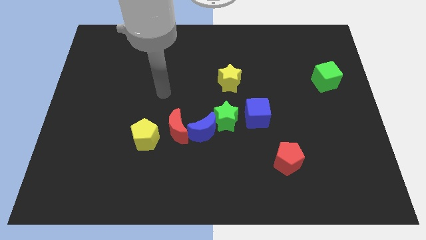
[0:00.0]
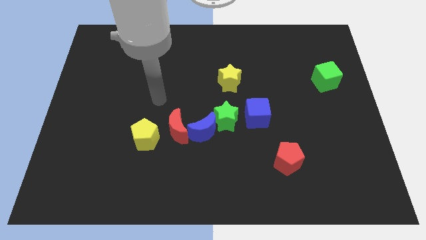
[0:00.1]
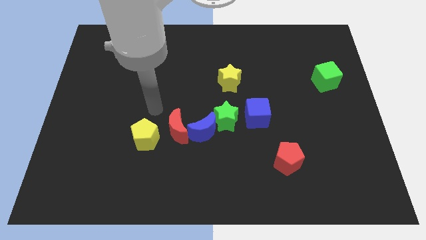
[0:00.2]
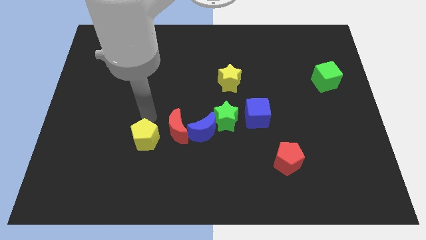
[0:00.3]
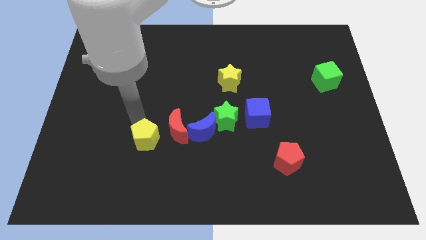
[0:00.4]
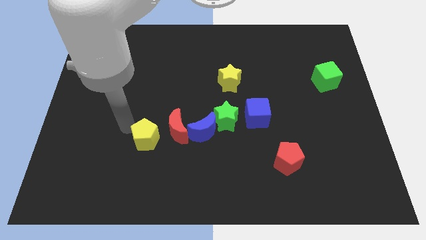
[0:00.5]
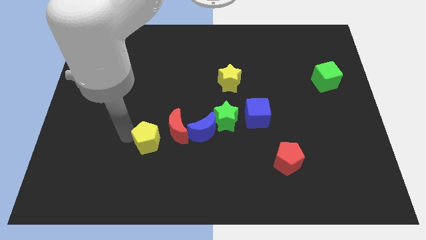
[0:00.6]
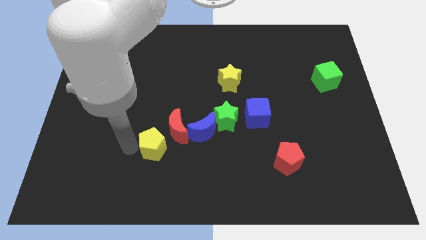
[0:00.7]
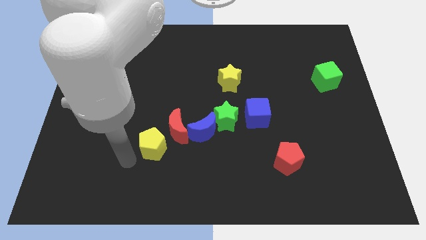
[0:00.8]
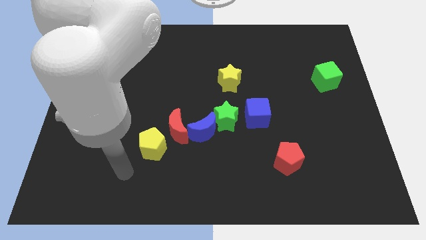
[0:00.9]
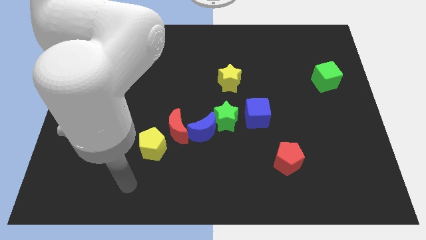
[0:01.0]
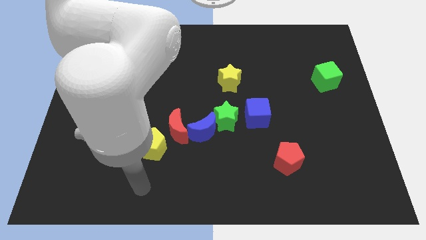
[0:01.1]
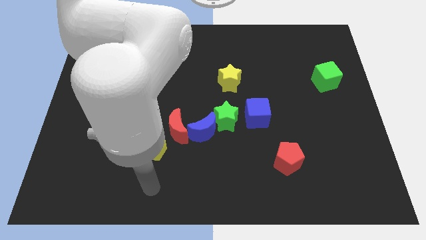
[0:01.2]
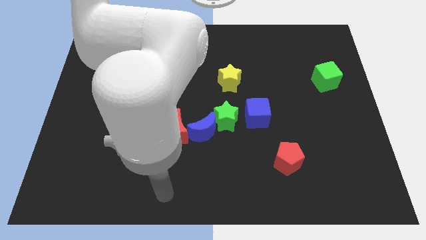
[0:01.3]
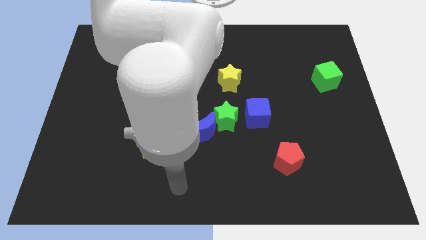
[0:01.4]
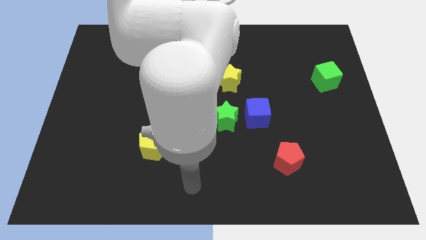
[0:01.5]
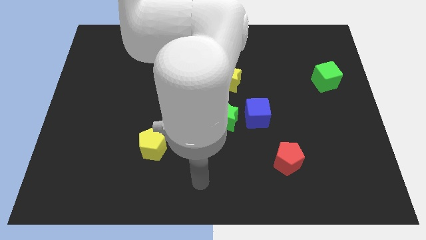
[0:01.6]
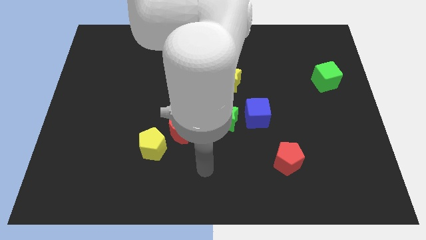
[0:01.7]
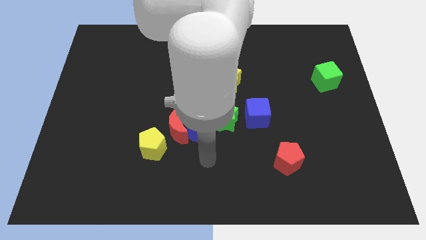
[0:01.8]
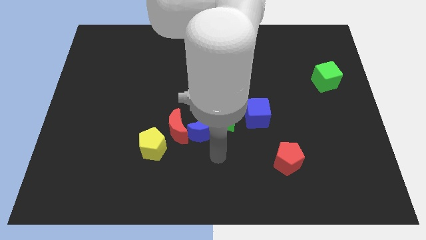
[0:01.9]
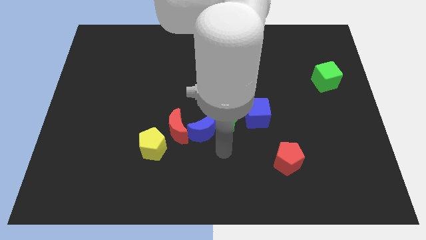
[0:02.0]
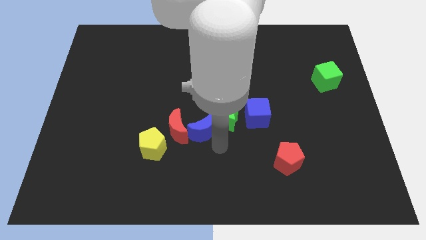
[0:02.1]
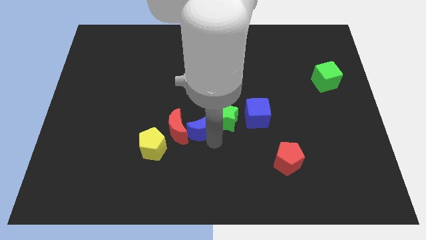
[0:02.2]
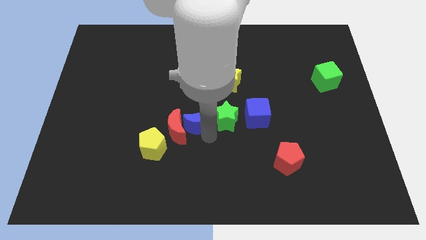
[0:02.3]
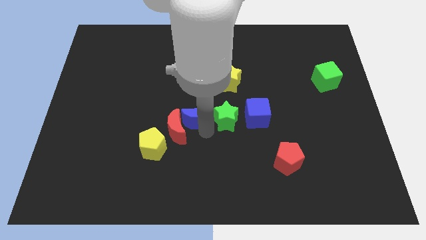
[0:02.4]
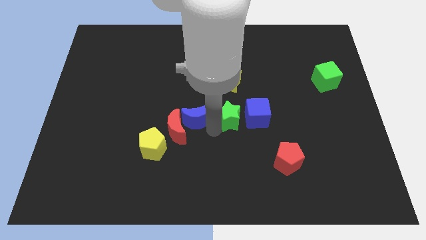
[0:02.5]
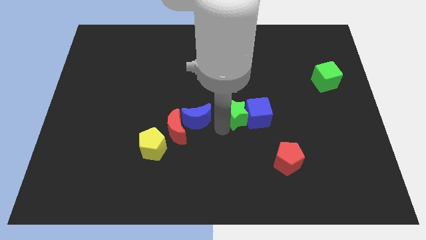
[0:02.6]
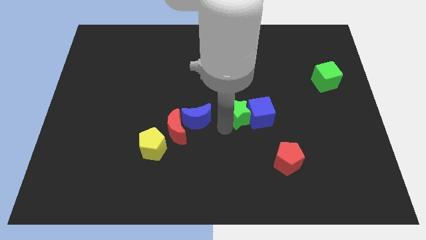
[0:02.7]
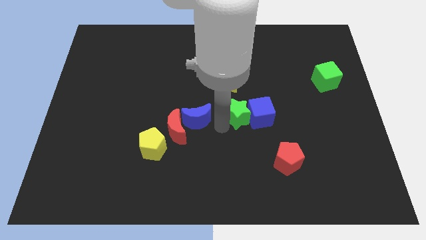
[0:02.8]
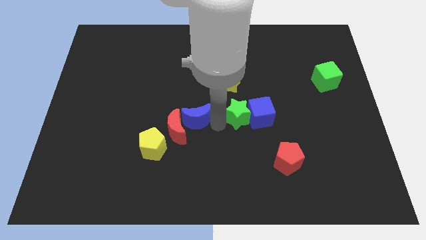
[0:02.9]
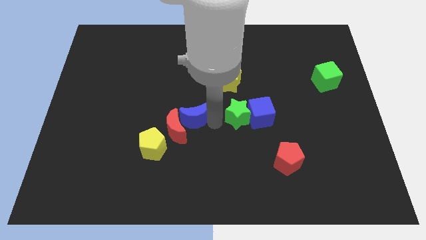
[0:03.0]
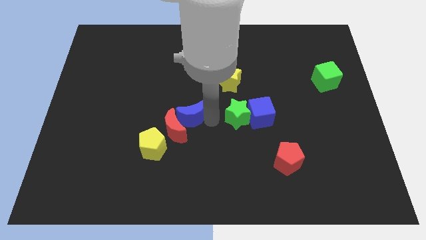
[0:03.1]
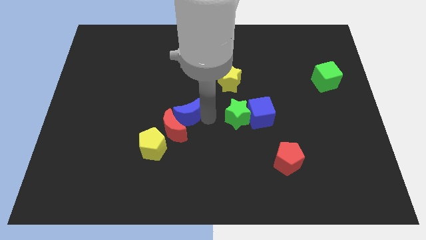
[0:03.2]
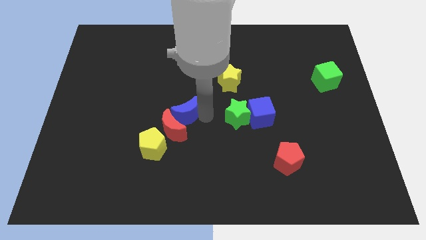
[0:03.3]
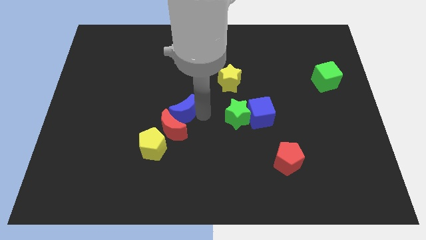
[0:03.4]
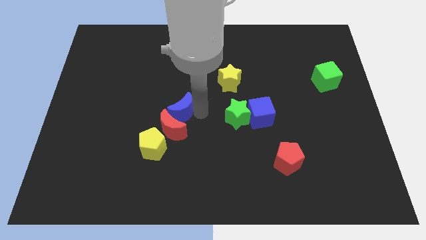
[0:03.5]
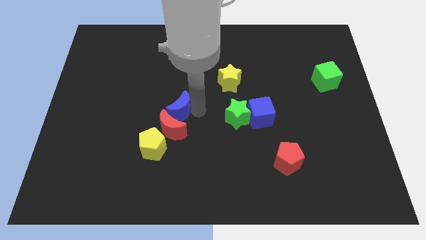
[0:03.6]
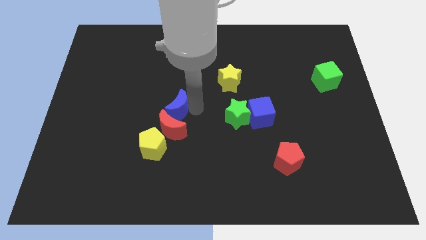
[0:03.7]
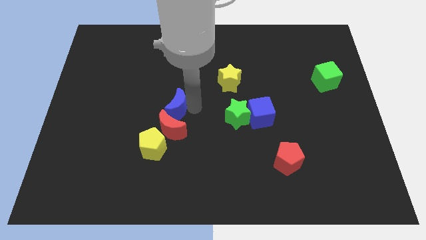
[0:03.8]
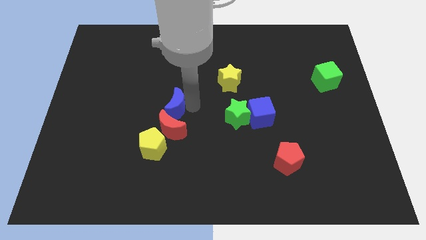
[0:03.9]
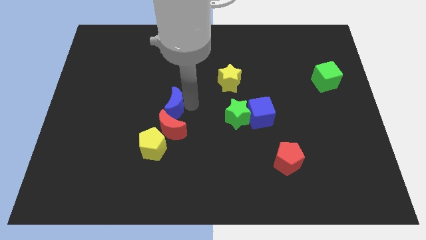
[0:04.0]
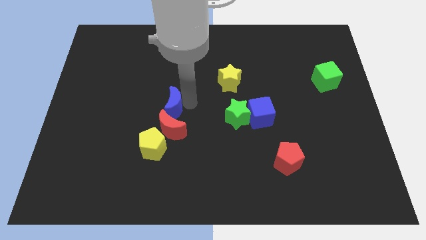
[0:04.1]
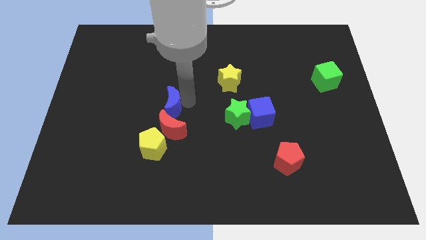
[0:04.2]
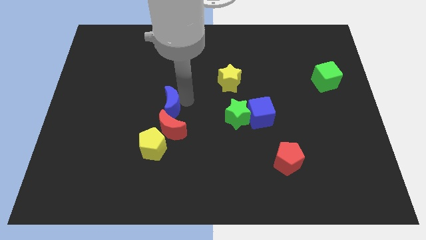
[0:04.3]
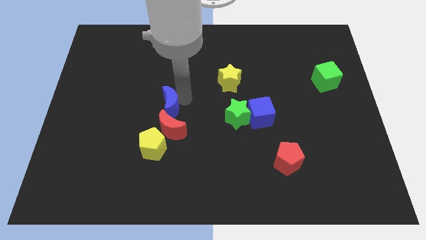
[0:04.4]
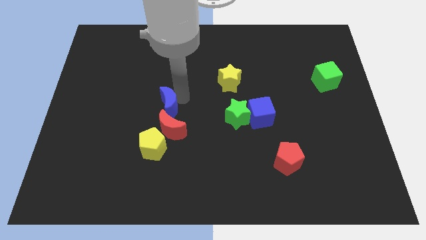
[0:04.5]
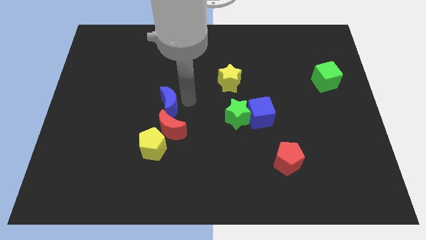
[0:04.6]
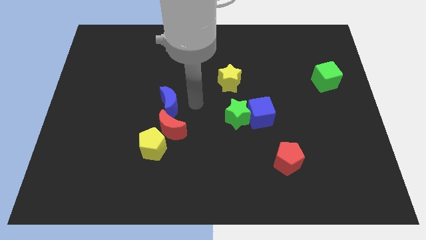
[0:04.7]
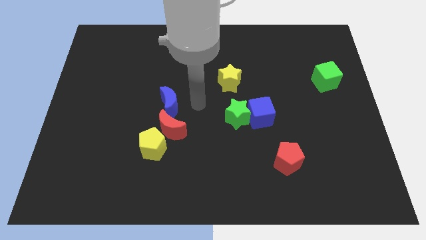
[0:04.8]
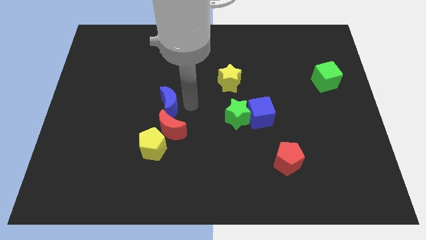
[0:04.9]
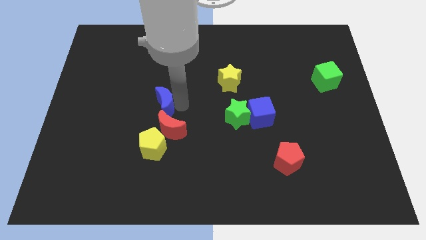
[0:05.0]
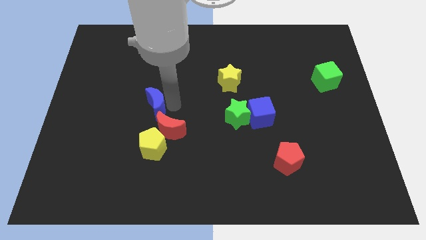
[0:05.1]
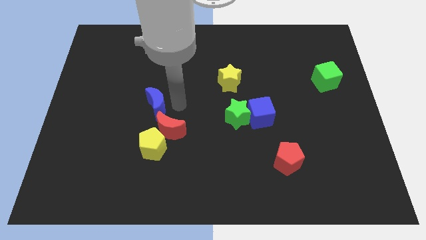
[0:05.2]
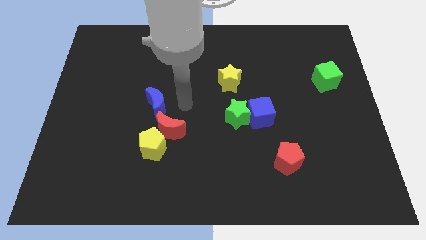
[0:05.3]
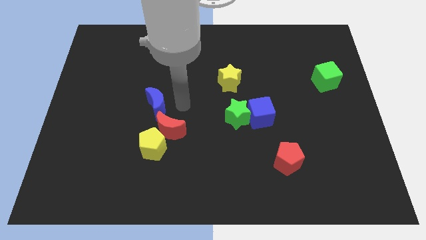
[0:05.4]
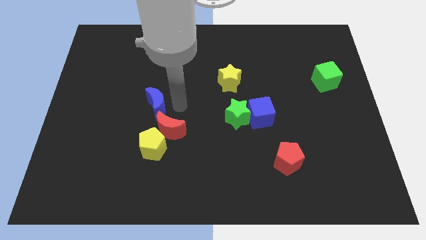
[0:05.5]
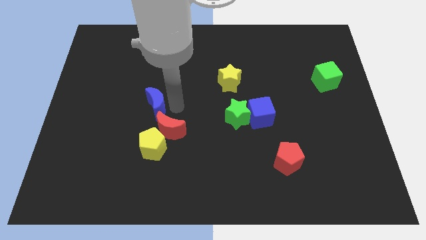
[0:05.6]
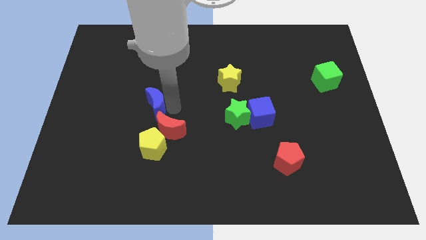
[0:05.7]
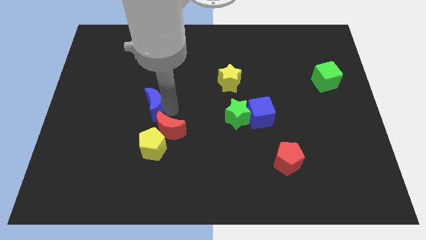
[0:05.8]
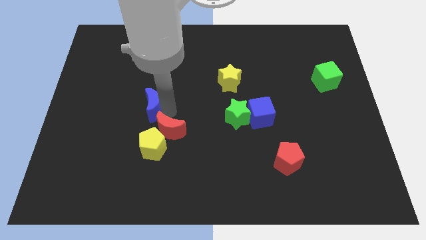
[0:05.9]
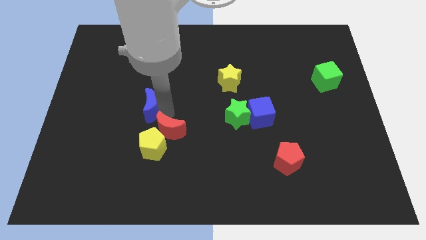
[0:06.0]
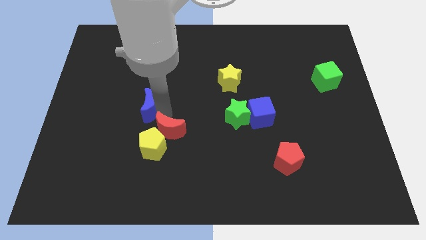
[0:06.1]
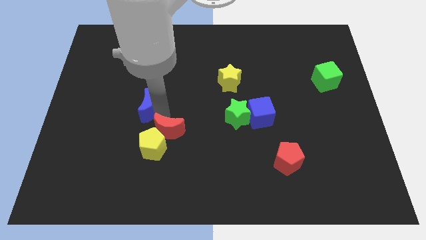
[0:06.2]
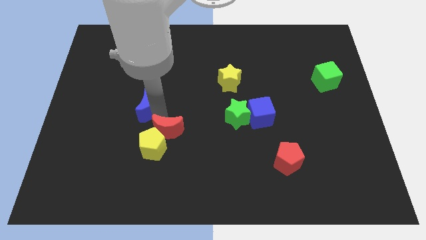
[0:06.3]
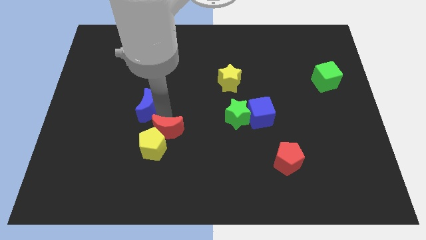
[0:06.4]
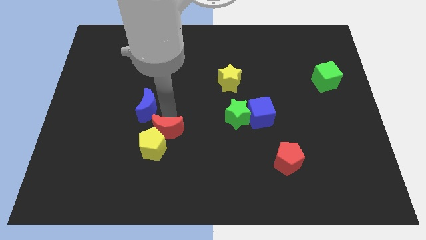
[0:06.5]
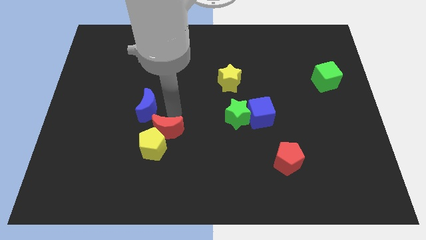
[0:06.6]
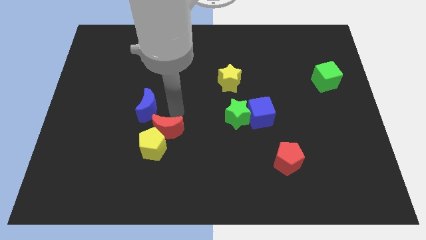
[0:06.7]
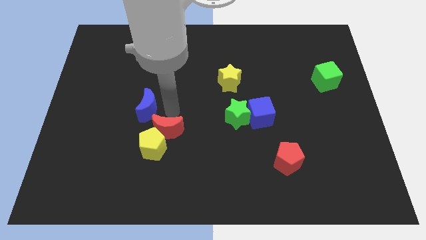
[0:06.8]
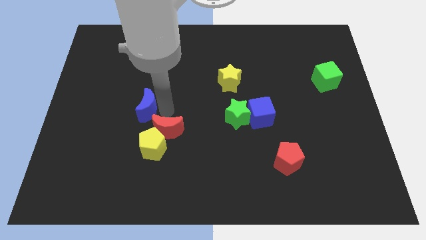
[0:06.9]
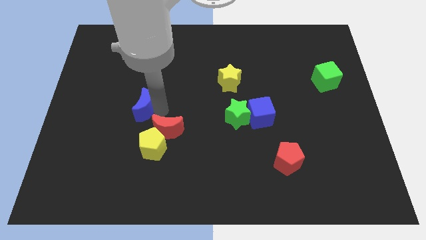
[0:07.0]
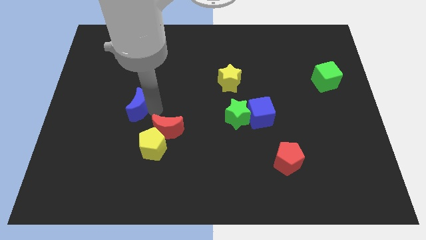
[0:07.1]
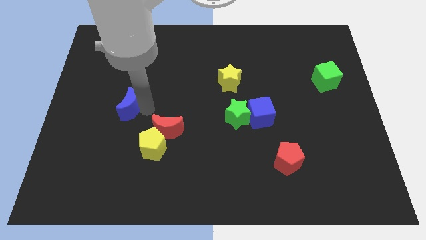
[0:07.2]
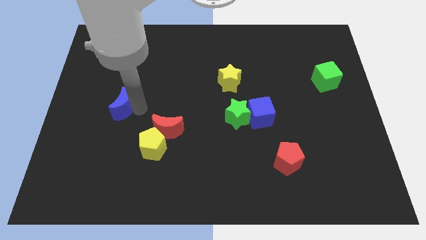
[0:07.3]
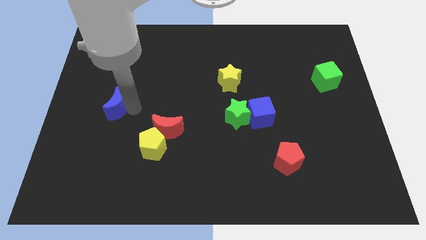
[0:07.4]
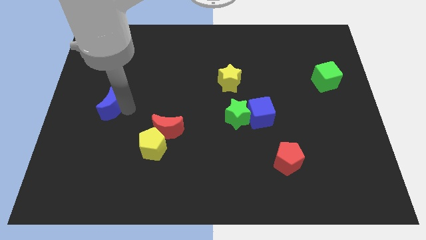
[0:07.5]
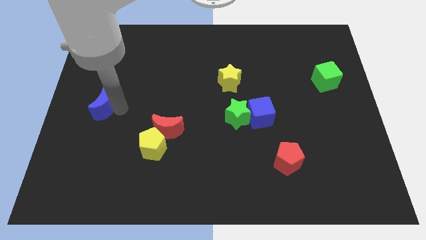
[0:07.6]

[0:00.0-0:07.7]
push the blue moon to the left side of the board
